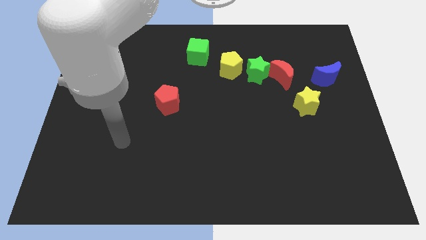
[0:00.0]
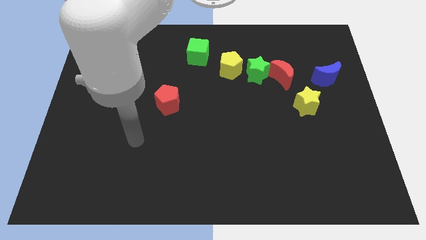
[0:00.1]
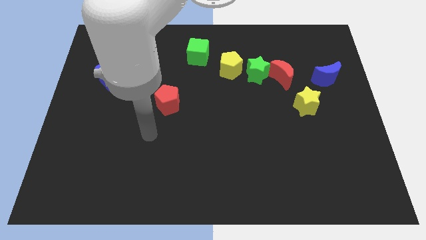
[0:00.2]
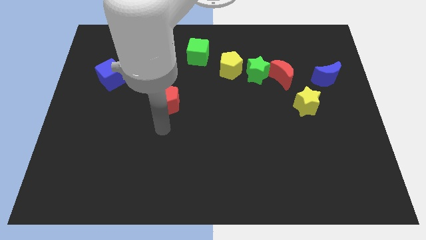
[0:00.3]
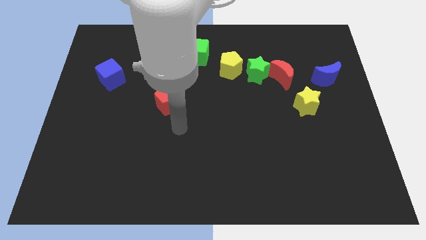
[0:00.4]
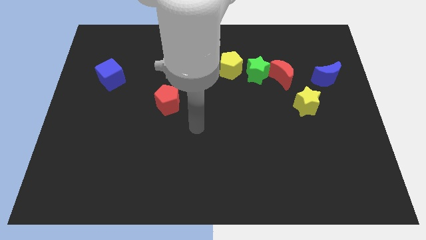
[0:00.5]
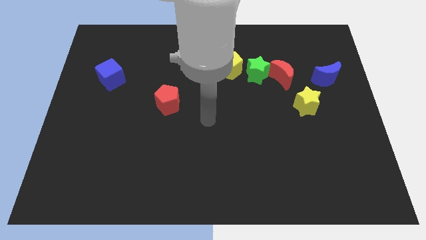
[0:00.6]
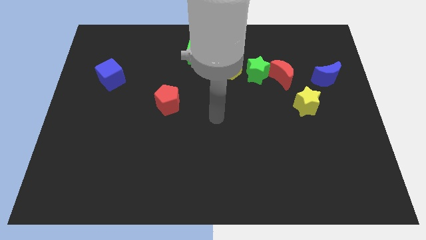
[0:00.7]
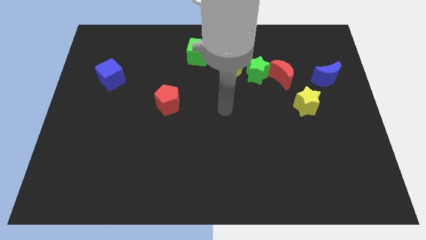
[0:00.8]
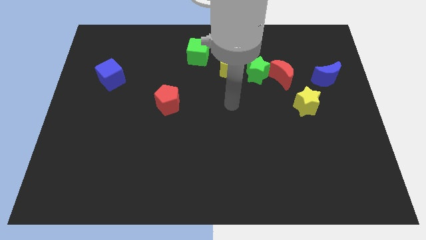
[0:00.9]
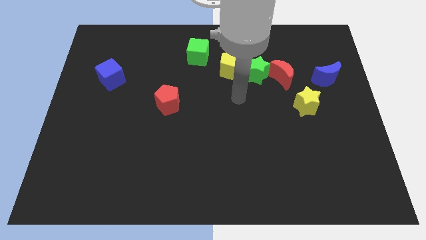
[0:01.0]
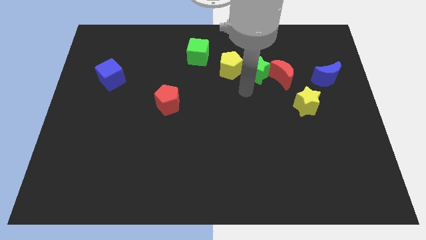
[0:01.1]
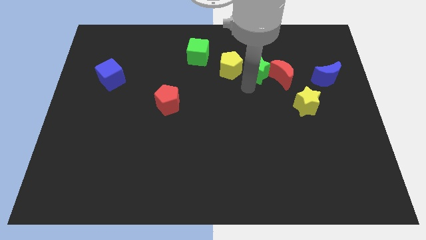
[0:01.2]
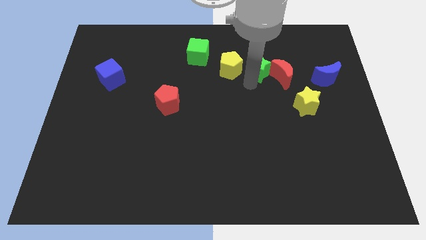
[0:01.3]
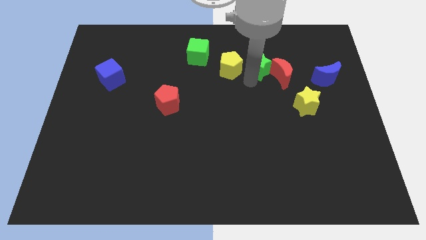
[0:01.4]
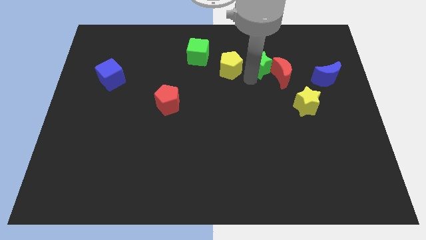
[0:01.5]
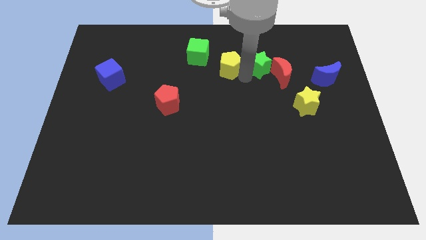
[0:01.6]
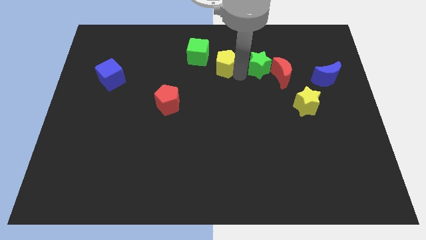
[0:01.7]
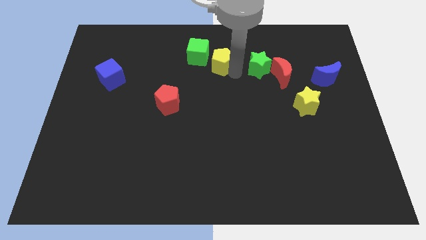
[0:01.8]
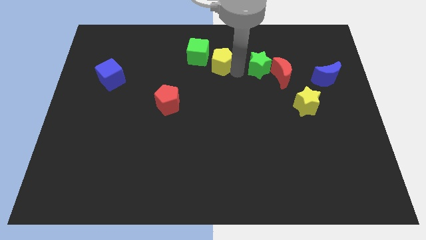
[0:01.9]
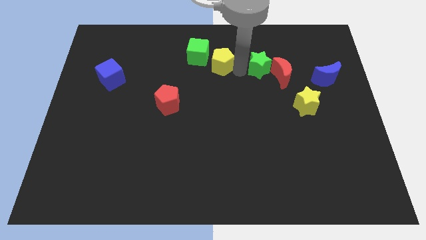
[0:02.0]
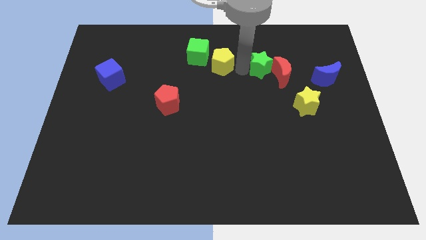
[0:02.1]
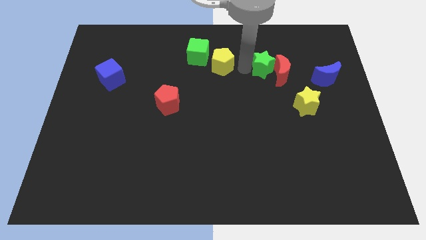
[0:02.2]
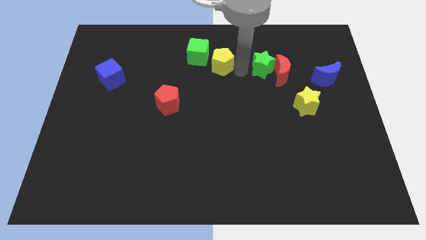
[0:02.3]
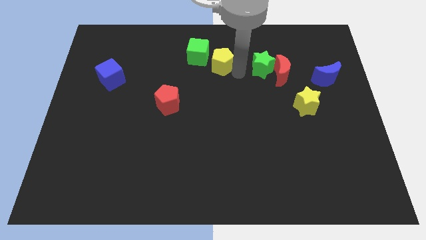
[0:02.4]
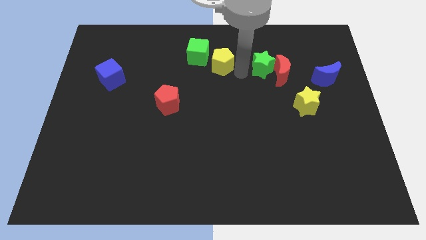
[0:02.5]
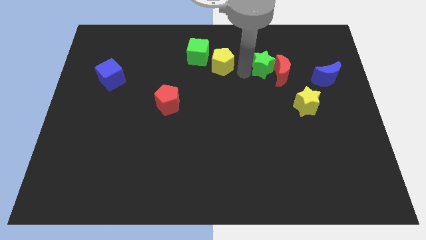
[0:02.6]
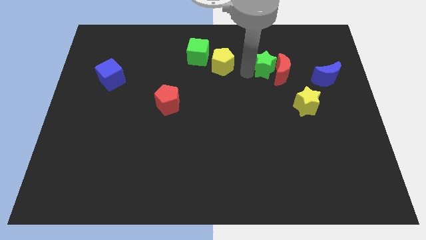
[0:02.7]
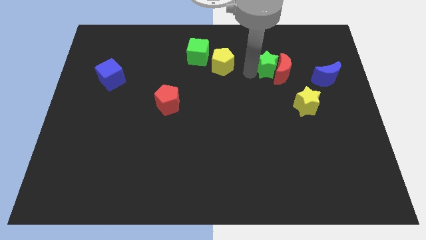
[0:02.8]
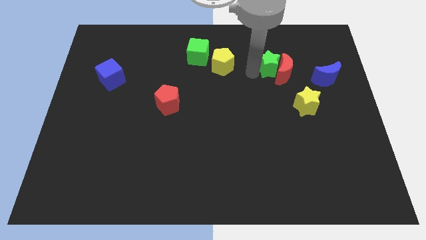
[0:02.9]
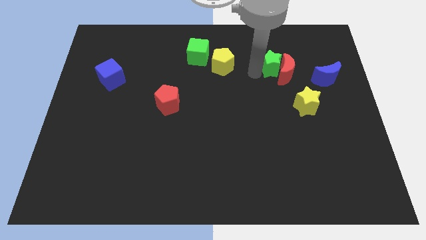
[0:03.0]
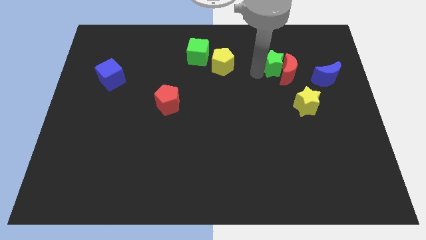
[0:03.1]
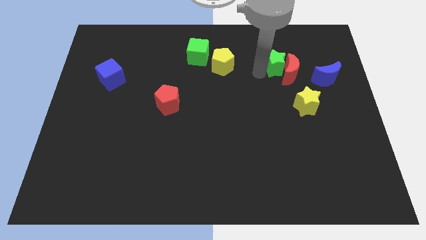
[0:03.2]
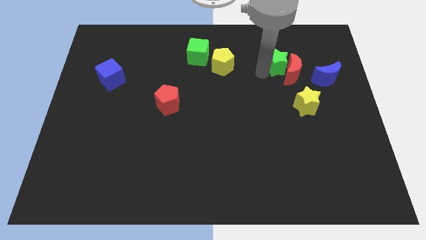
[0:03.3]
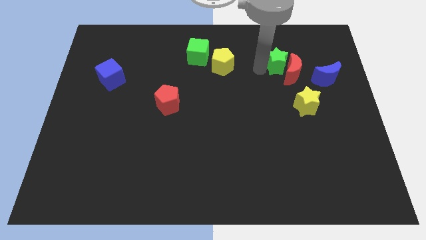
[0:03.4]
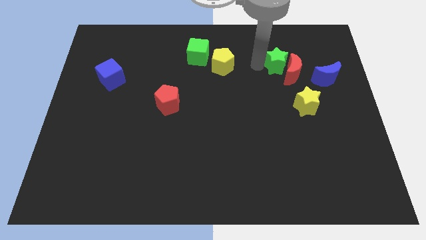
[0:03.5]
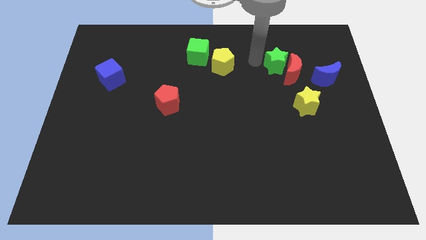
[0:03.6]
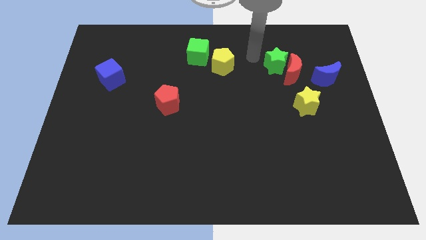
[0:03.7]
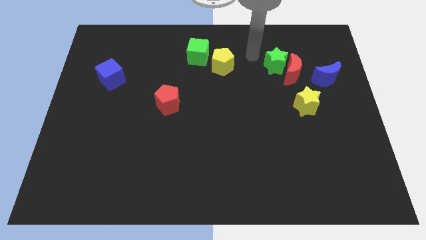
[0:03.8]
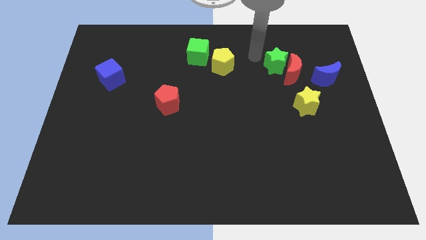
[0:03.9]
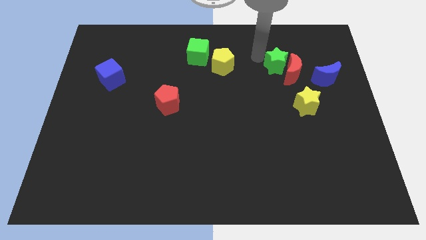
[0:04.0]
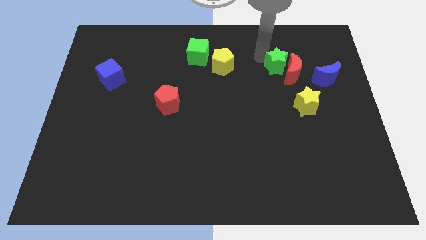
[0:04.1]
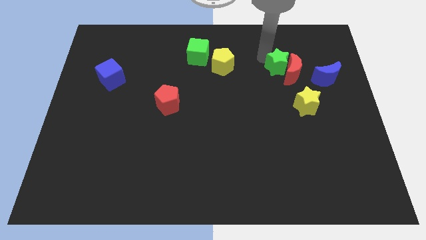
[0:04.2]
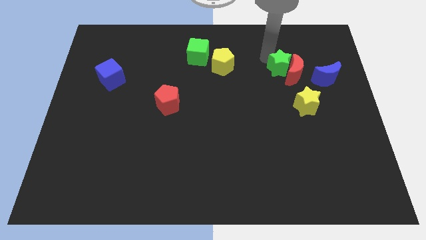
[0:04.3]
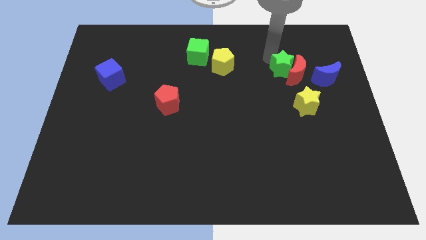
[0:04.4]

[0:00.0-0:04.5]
put the green star to the top side of the yellow star

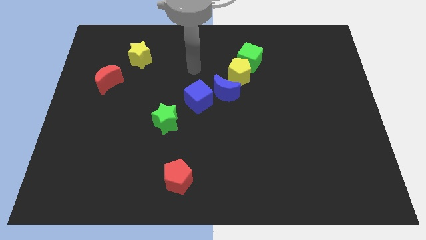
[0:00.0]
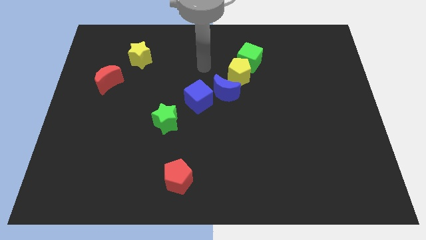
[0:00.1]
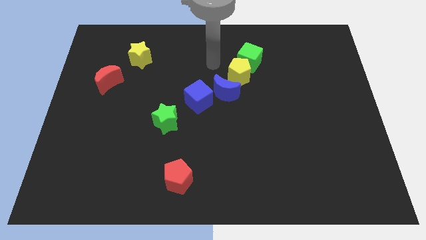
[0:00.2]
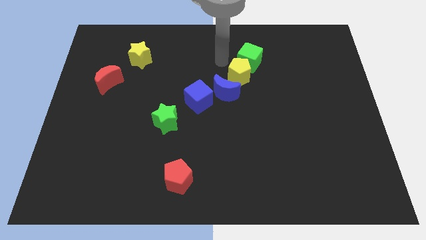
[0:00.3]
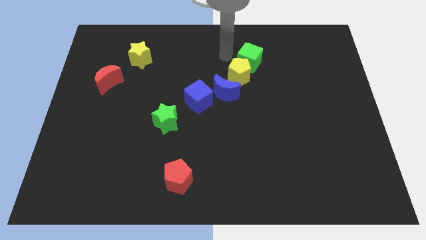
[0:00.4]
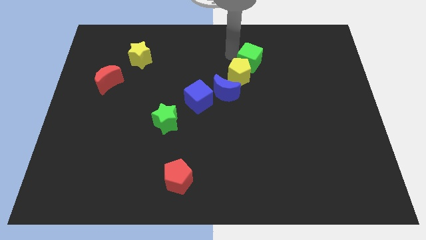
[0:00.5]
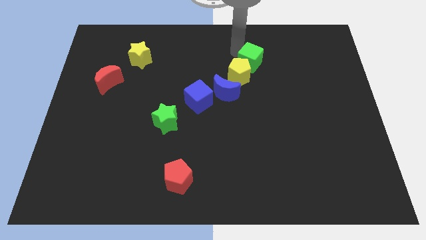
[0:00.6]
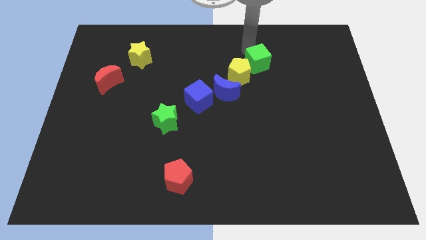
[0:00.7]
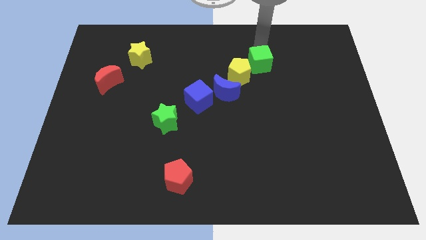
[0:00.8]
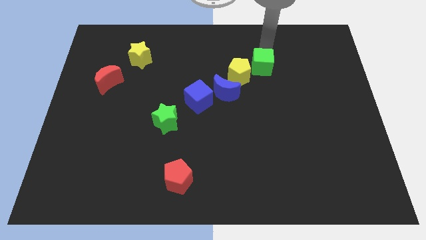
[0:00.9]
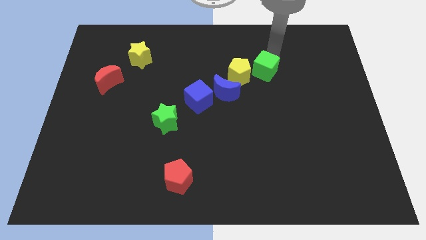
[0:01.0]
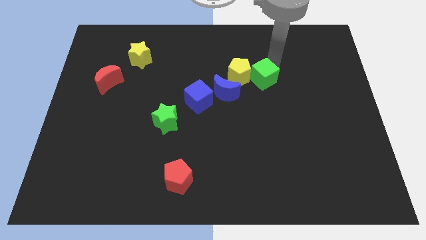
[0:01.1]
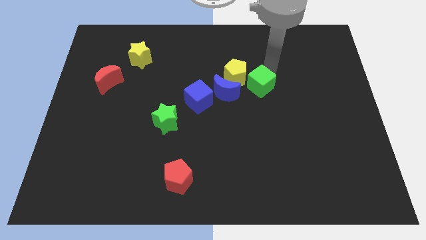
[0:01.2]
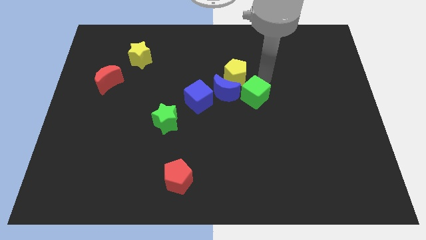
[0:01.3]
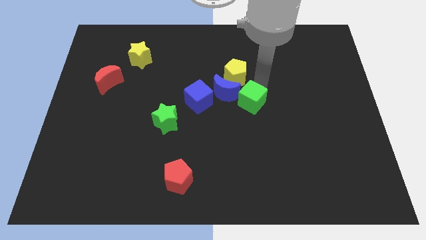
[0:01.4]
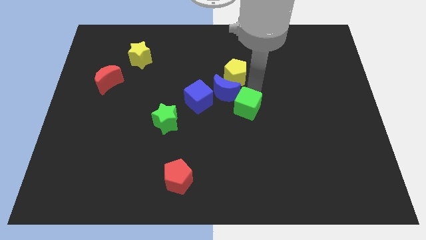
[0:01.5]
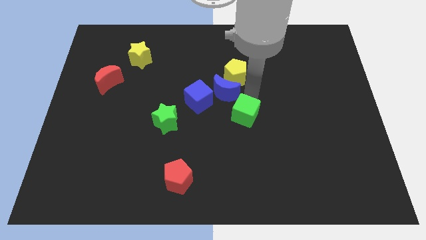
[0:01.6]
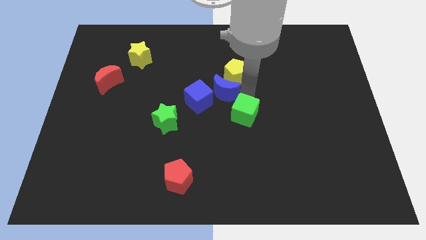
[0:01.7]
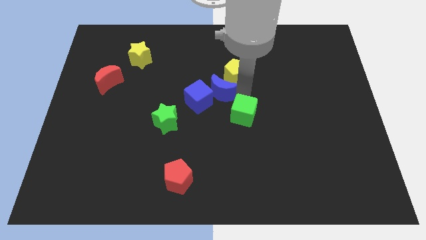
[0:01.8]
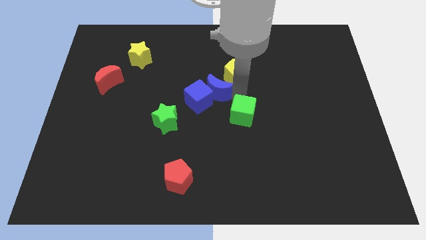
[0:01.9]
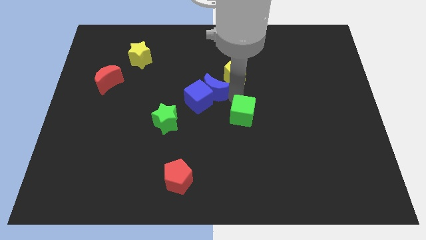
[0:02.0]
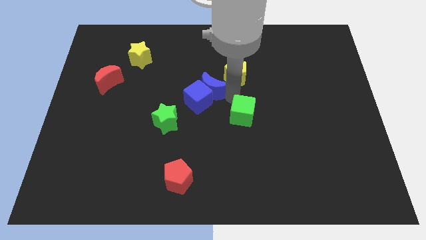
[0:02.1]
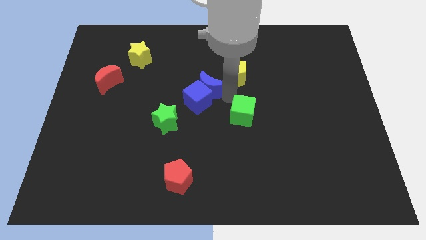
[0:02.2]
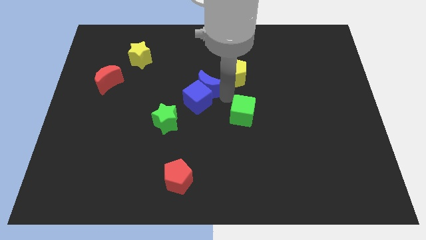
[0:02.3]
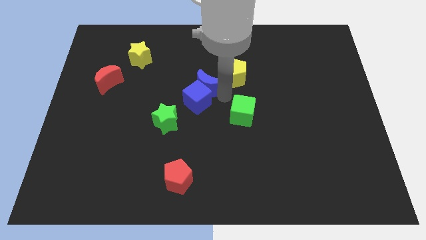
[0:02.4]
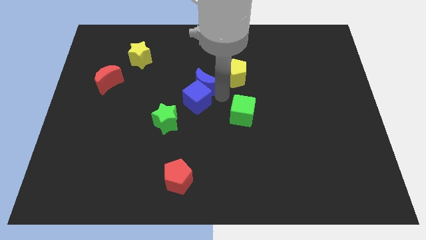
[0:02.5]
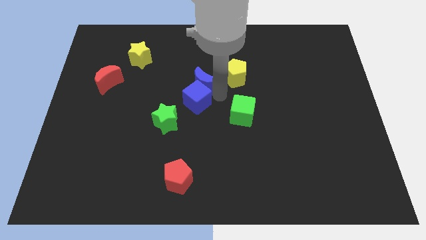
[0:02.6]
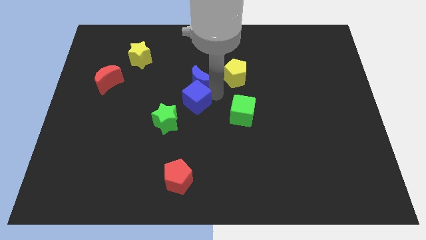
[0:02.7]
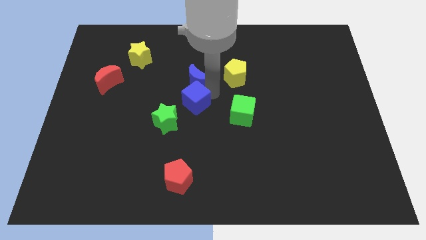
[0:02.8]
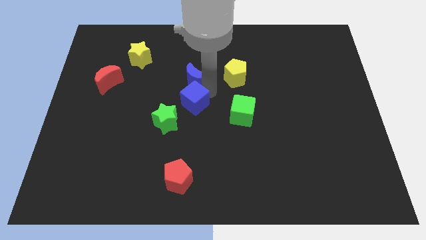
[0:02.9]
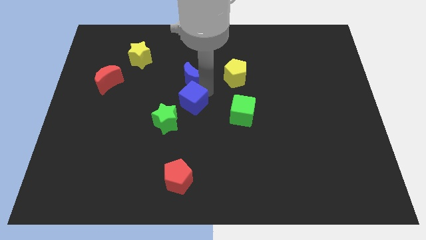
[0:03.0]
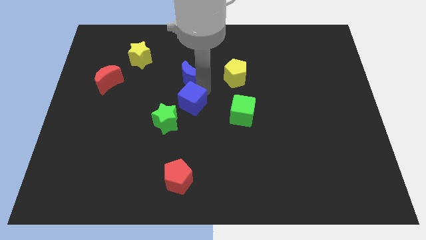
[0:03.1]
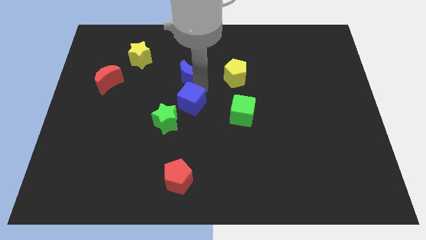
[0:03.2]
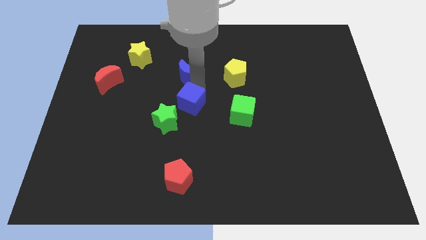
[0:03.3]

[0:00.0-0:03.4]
put the blue moon above the green star
